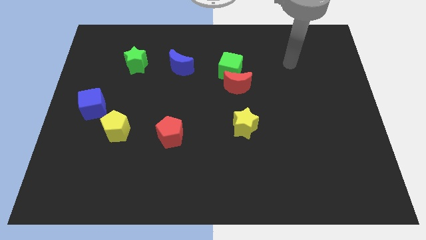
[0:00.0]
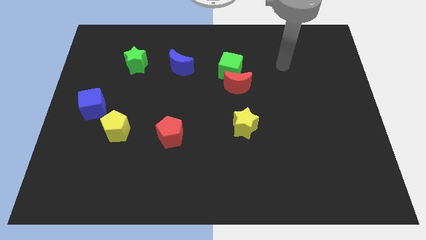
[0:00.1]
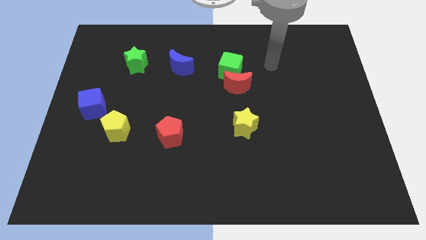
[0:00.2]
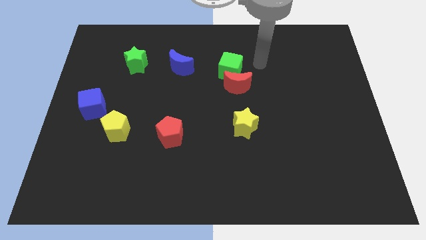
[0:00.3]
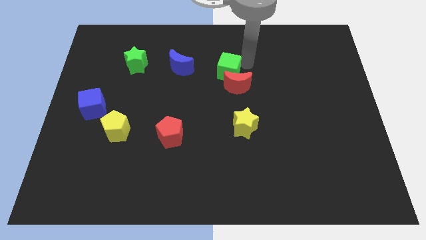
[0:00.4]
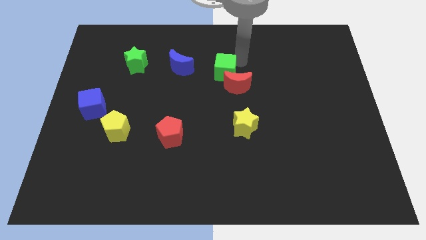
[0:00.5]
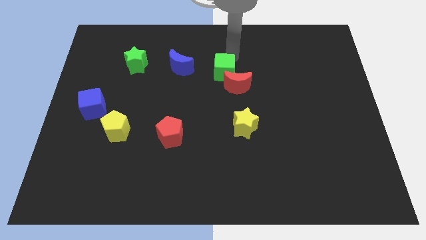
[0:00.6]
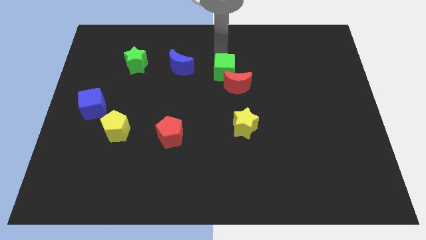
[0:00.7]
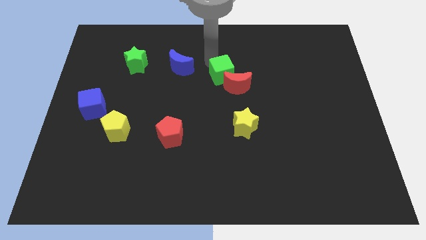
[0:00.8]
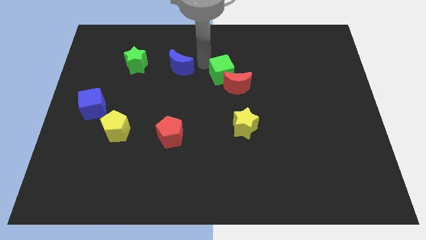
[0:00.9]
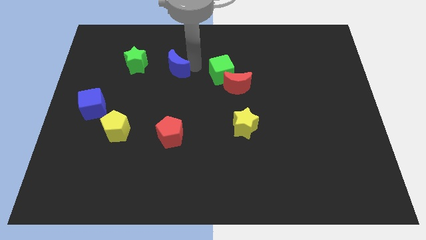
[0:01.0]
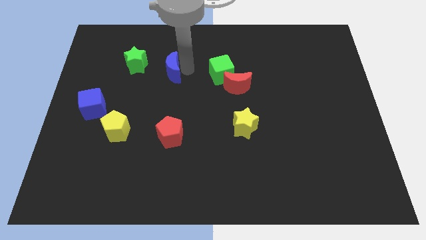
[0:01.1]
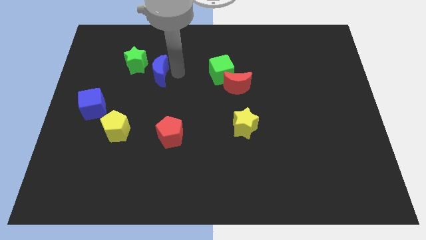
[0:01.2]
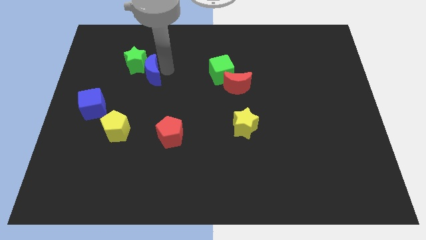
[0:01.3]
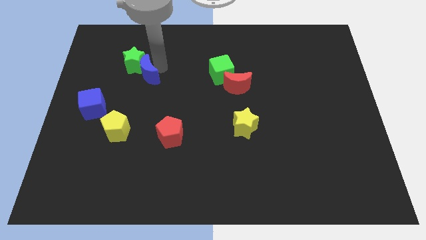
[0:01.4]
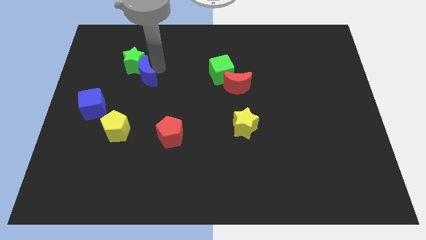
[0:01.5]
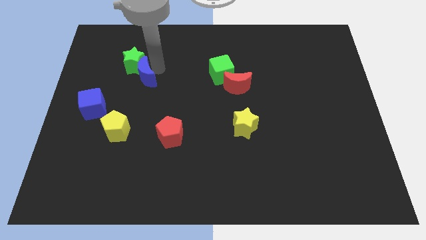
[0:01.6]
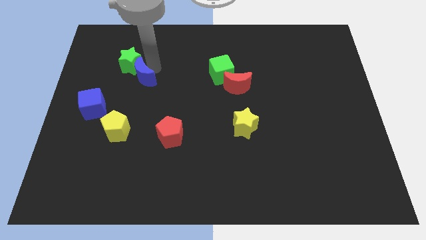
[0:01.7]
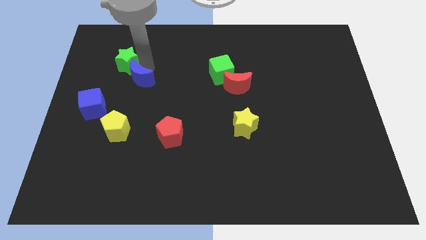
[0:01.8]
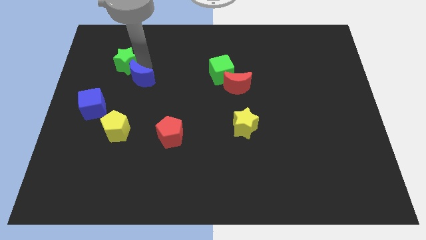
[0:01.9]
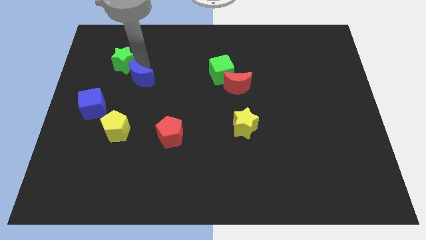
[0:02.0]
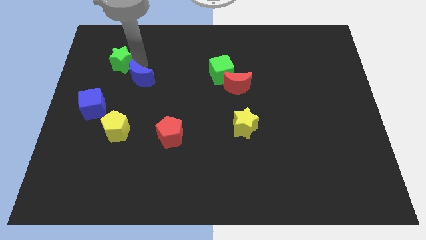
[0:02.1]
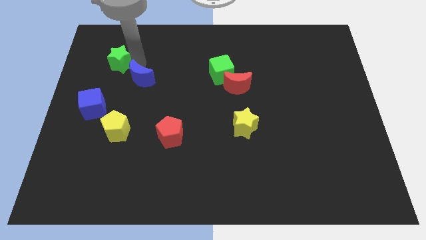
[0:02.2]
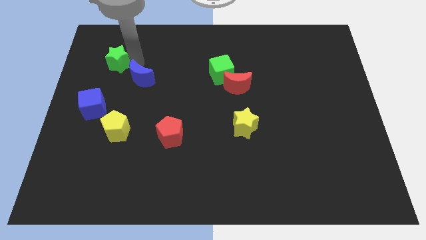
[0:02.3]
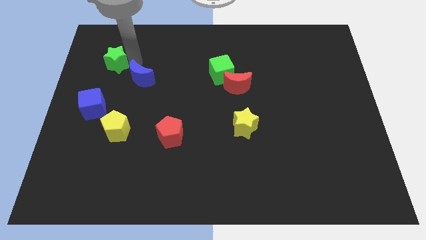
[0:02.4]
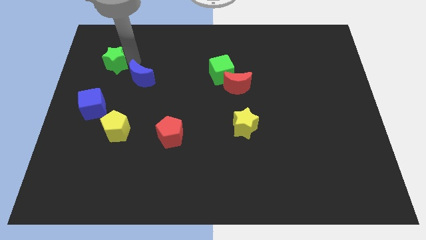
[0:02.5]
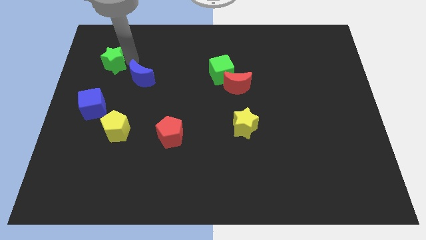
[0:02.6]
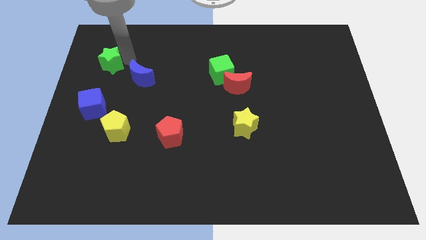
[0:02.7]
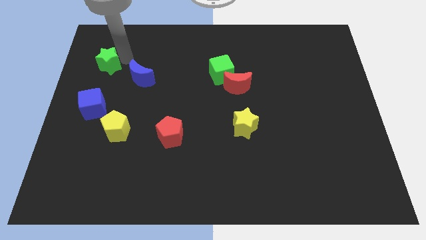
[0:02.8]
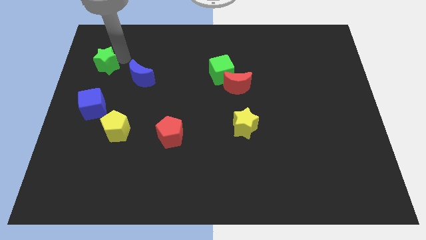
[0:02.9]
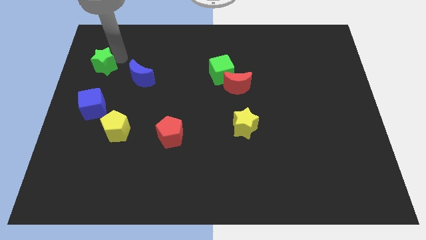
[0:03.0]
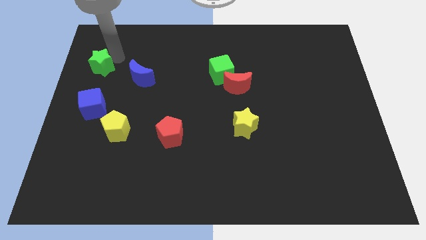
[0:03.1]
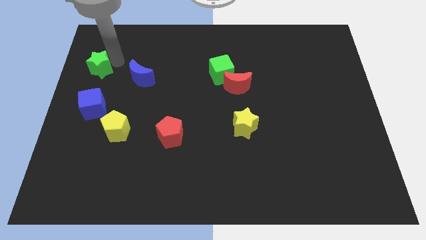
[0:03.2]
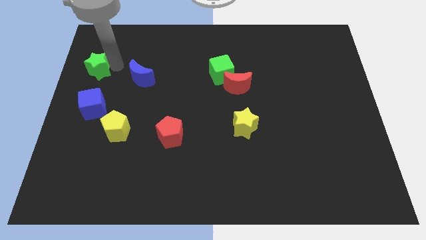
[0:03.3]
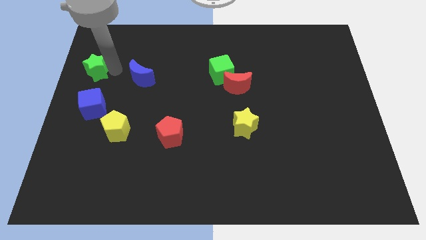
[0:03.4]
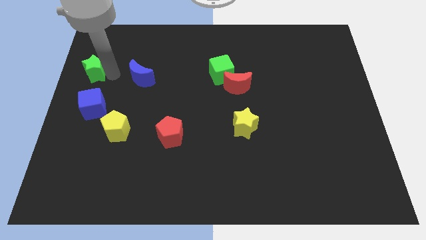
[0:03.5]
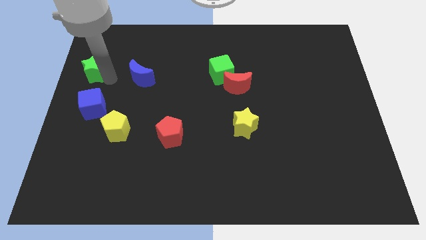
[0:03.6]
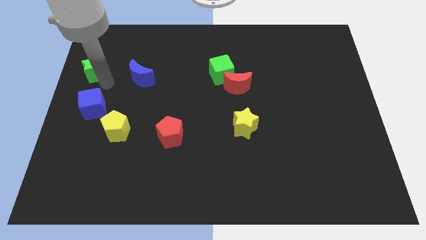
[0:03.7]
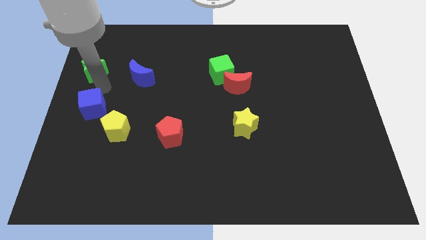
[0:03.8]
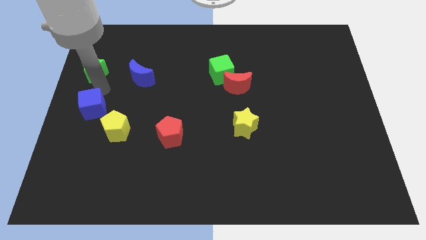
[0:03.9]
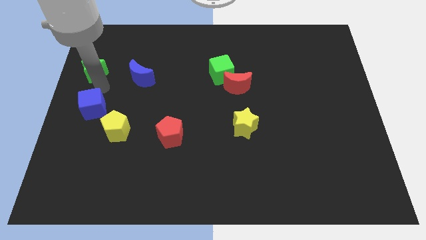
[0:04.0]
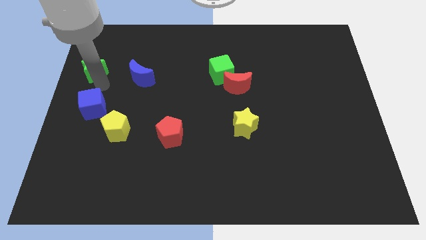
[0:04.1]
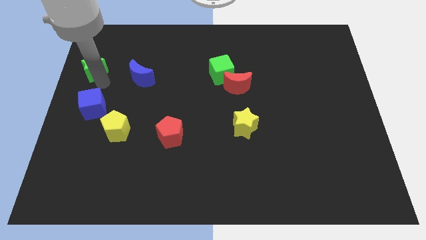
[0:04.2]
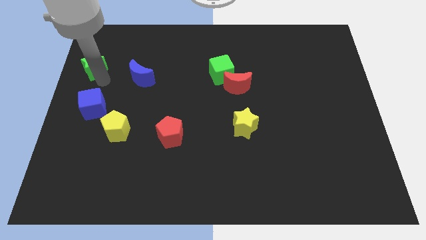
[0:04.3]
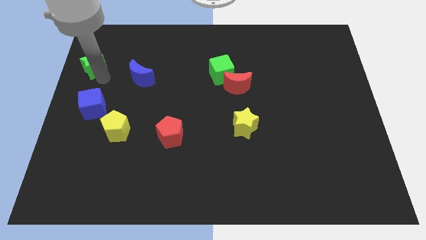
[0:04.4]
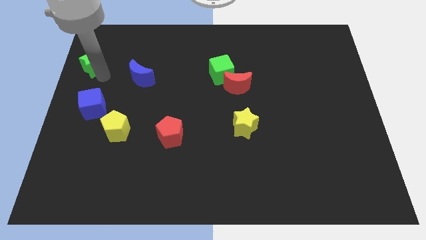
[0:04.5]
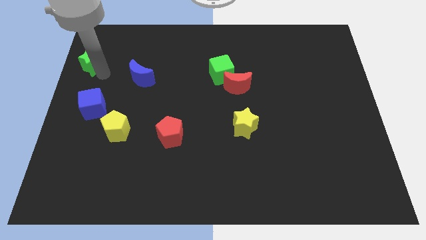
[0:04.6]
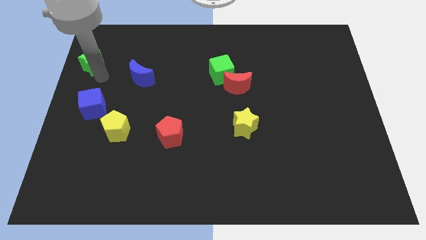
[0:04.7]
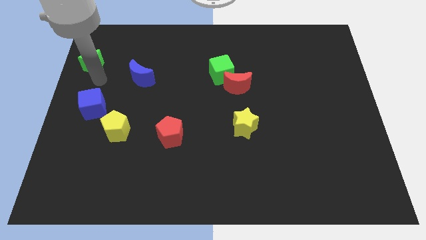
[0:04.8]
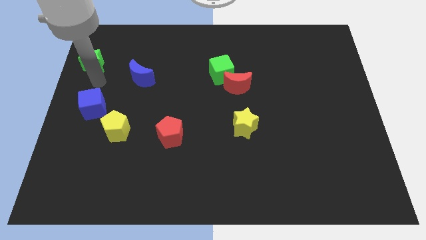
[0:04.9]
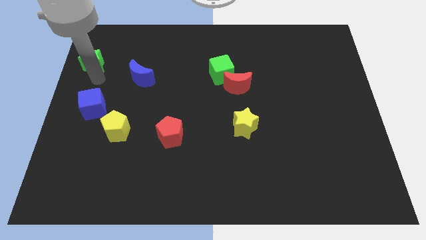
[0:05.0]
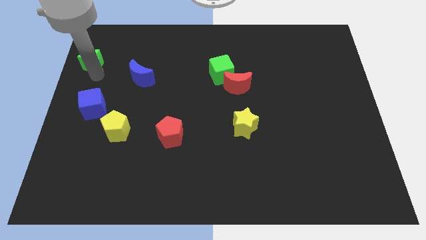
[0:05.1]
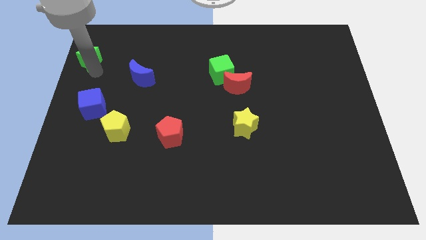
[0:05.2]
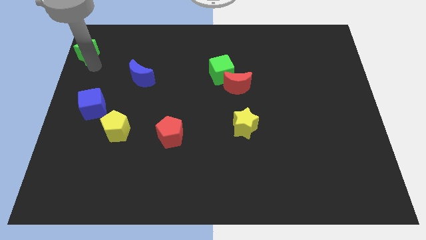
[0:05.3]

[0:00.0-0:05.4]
slide the green star to the top left corner

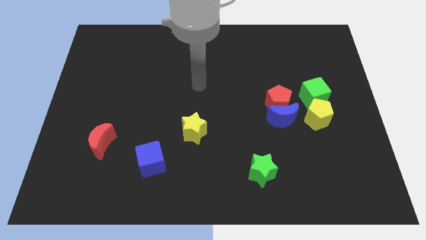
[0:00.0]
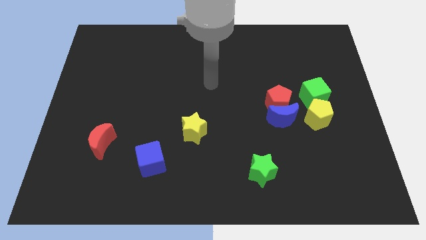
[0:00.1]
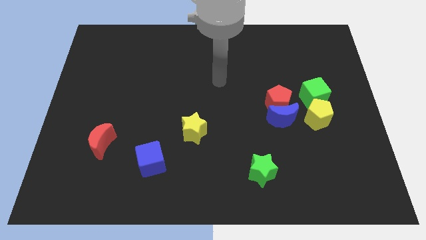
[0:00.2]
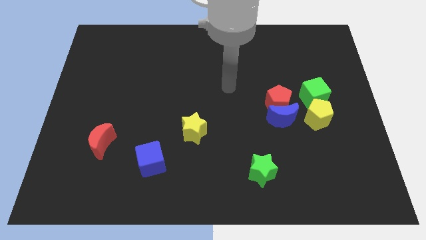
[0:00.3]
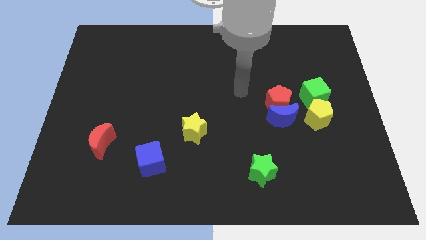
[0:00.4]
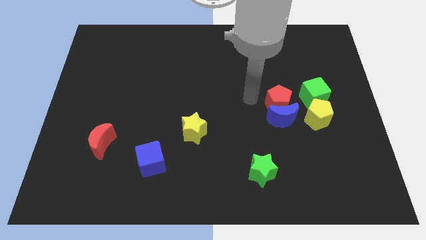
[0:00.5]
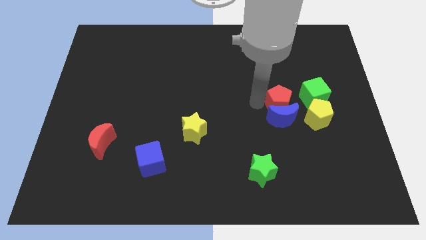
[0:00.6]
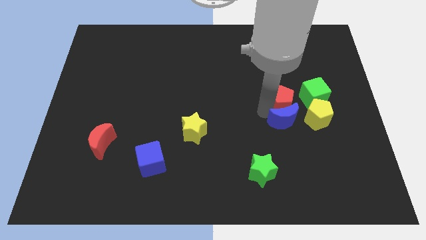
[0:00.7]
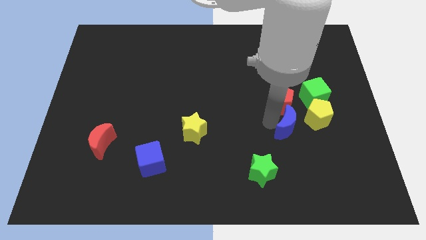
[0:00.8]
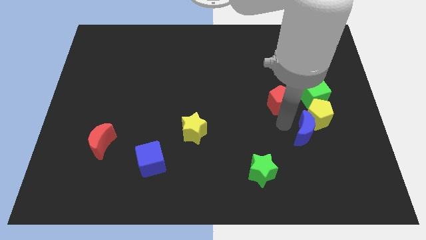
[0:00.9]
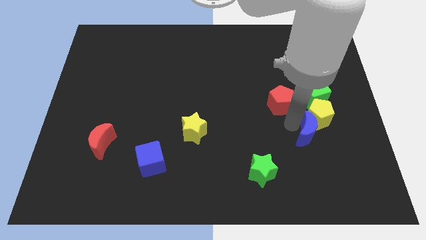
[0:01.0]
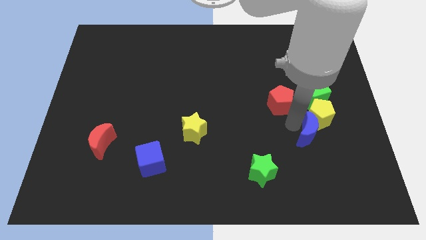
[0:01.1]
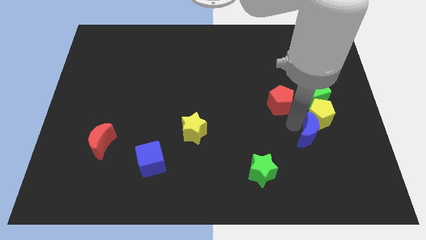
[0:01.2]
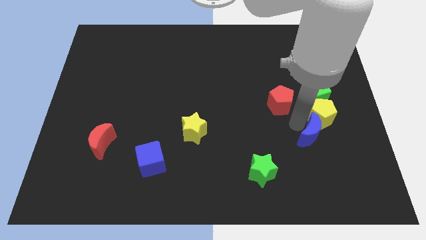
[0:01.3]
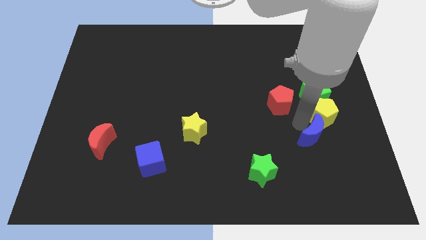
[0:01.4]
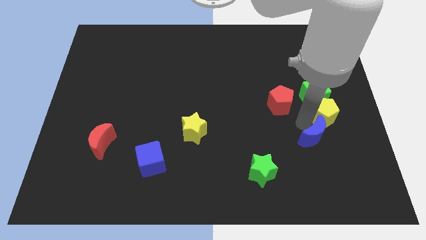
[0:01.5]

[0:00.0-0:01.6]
move the yellow pentagon to the right side

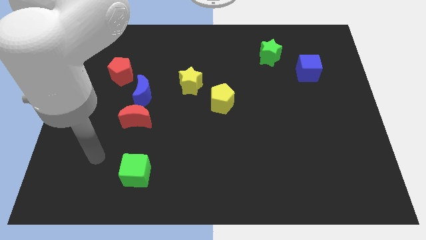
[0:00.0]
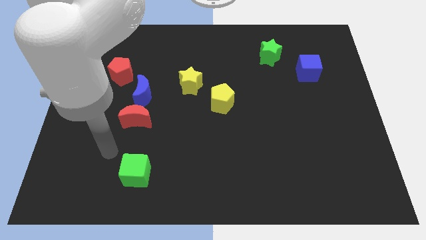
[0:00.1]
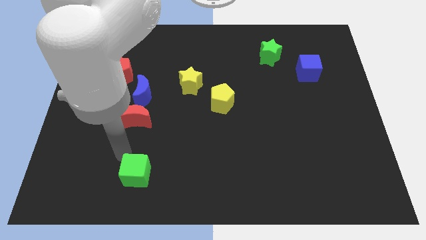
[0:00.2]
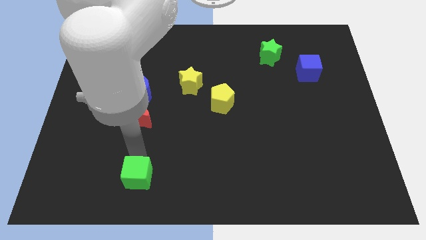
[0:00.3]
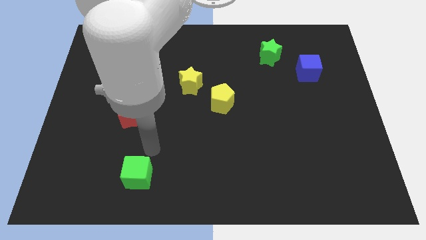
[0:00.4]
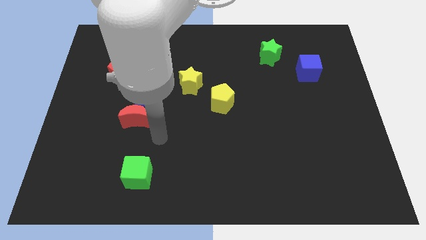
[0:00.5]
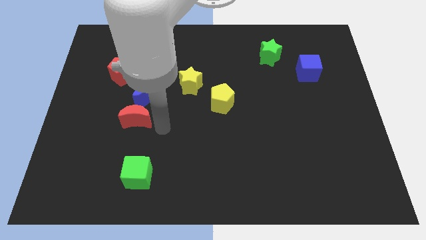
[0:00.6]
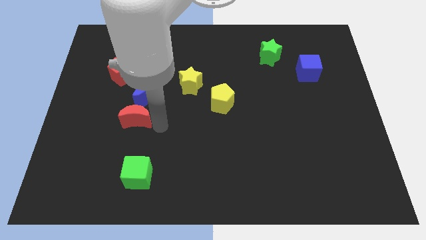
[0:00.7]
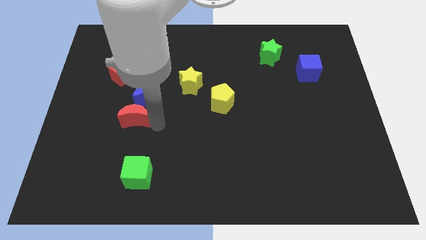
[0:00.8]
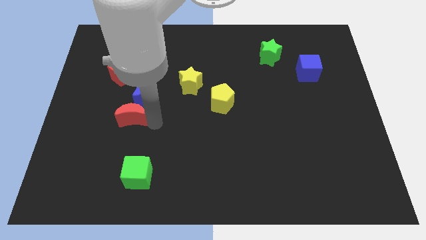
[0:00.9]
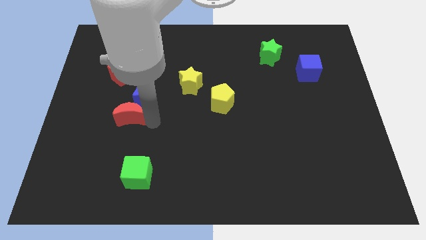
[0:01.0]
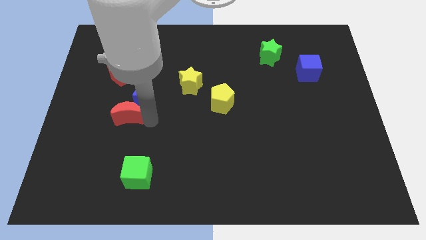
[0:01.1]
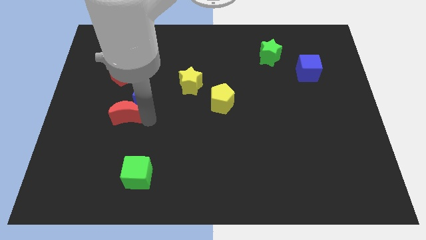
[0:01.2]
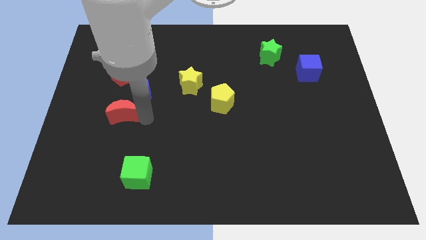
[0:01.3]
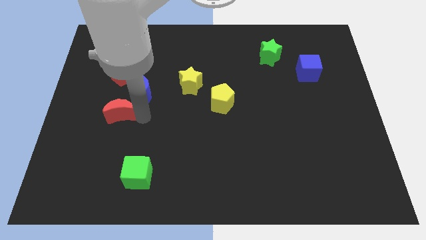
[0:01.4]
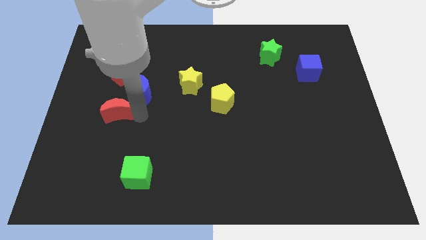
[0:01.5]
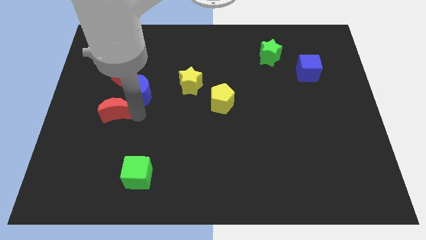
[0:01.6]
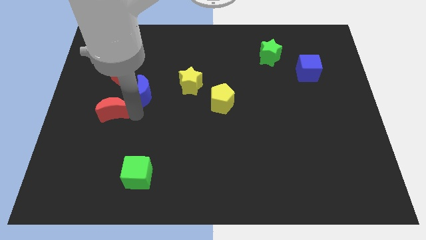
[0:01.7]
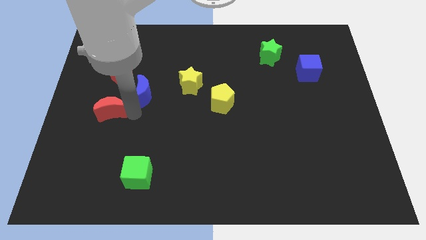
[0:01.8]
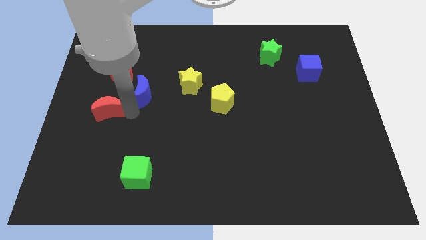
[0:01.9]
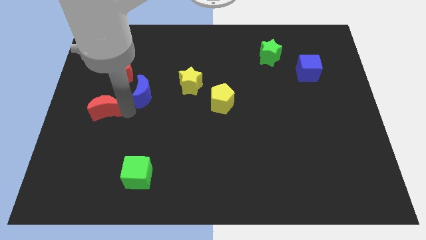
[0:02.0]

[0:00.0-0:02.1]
push the red moon to the center left
